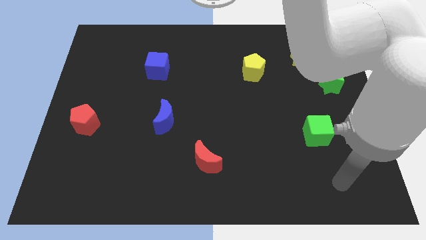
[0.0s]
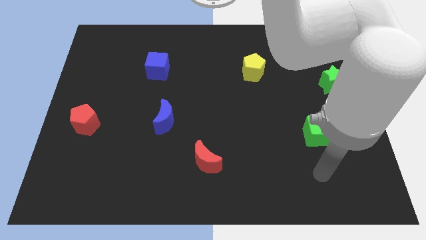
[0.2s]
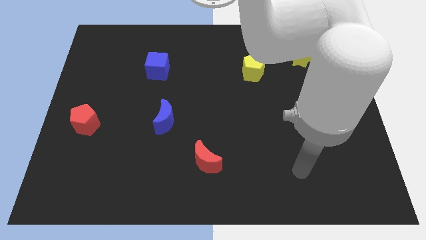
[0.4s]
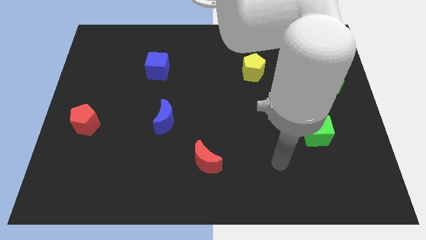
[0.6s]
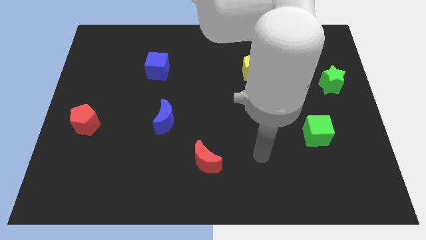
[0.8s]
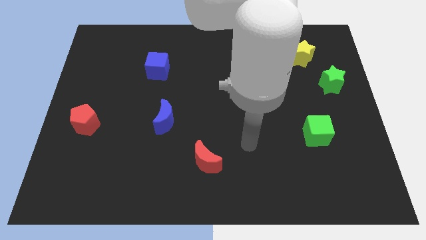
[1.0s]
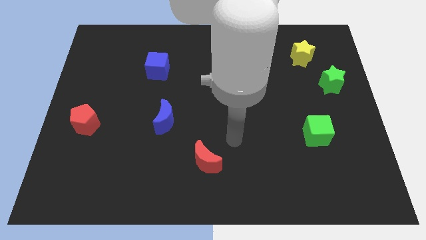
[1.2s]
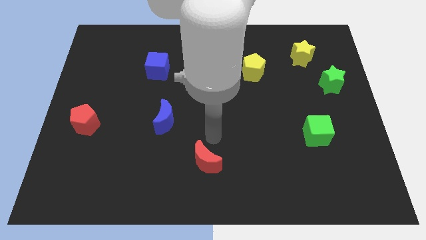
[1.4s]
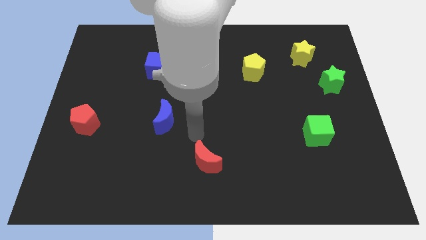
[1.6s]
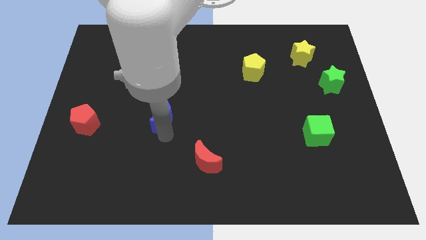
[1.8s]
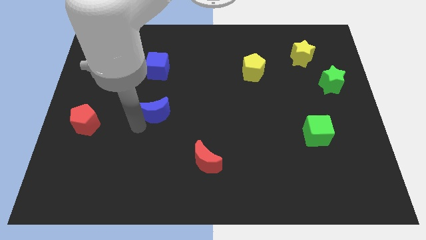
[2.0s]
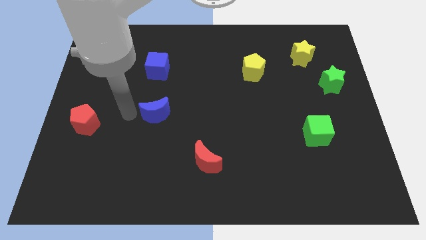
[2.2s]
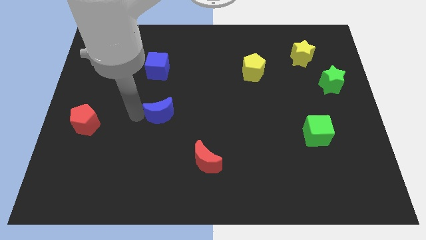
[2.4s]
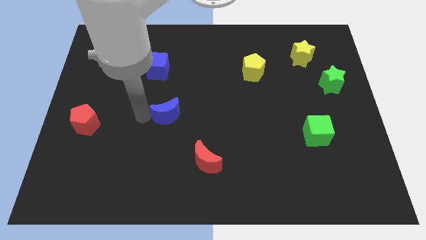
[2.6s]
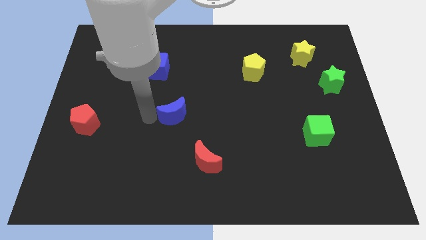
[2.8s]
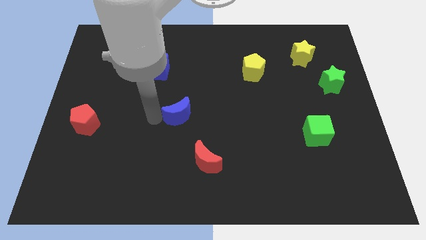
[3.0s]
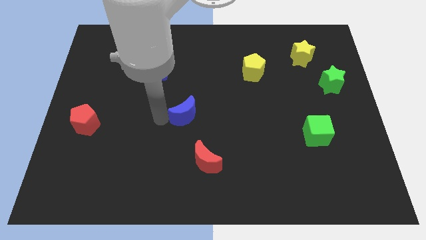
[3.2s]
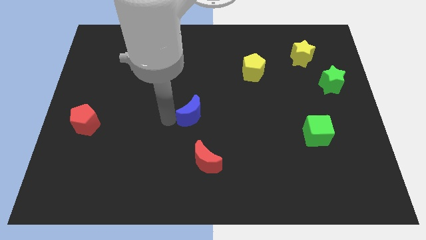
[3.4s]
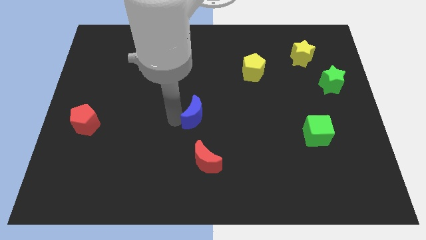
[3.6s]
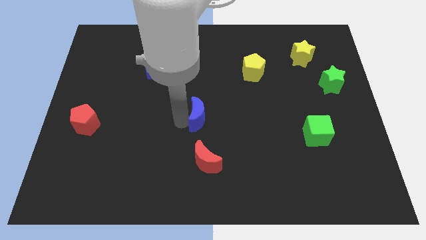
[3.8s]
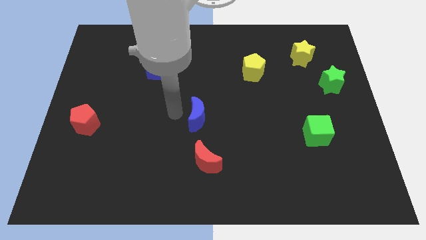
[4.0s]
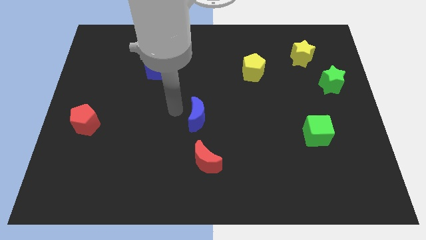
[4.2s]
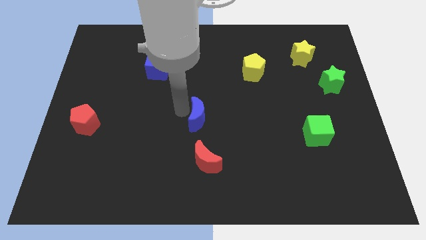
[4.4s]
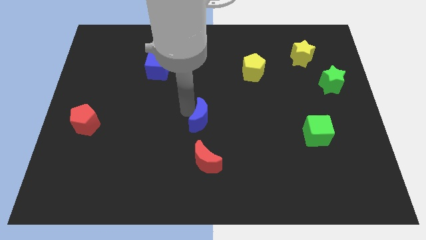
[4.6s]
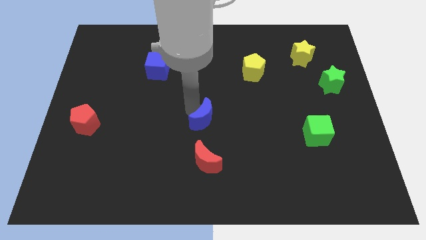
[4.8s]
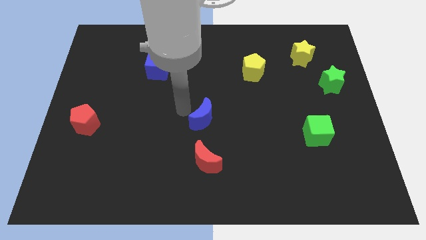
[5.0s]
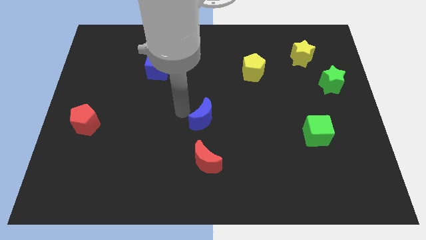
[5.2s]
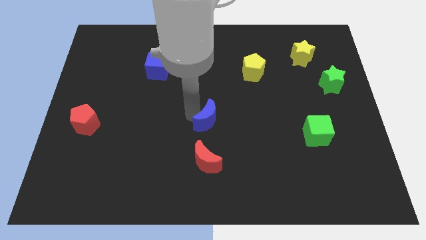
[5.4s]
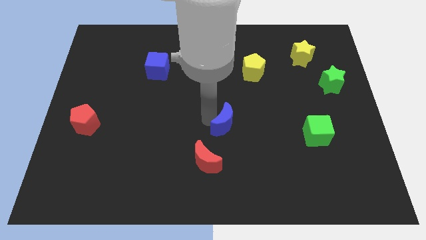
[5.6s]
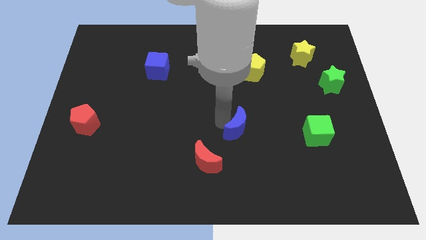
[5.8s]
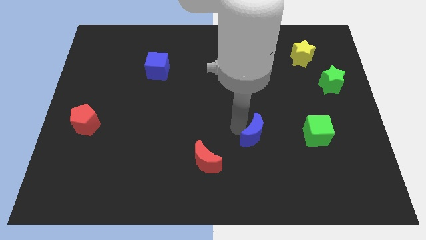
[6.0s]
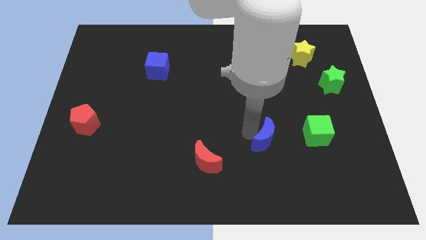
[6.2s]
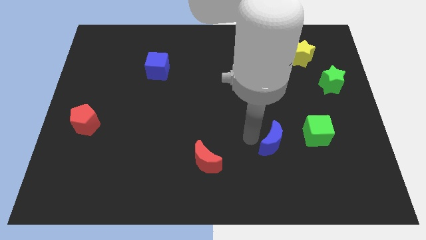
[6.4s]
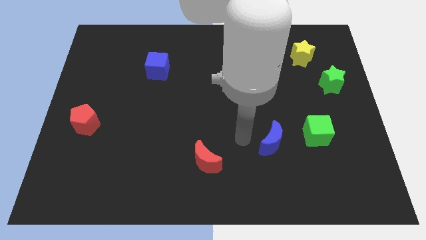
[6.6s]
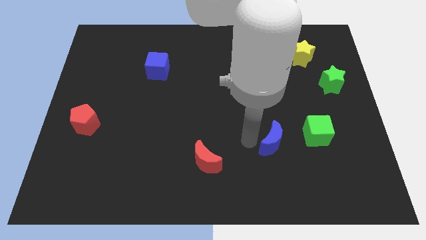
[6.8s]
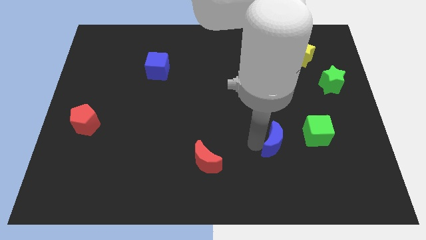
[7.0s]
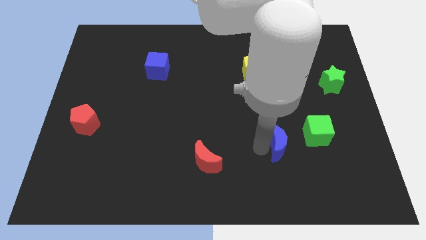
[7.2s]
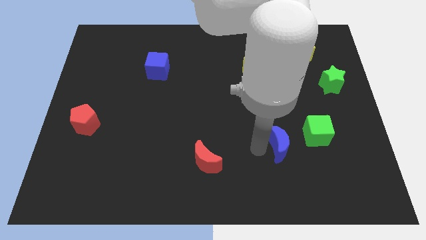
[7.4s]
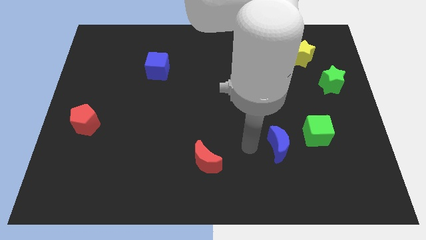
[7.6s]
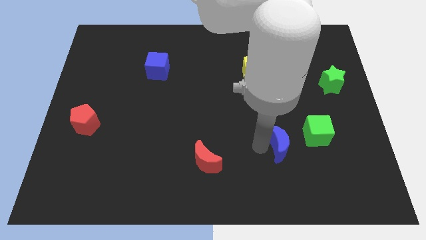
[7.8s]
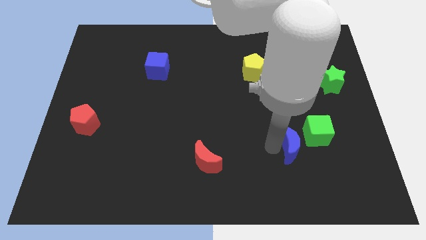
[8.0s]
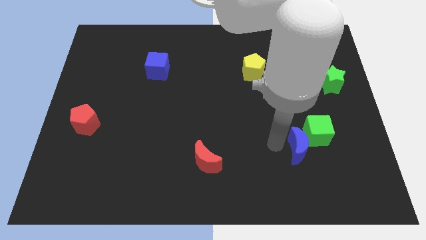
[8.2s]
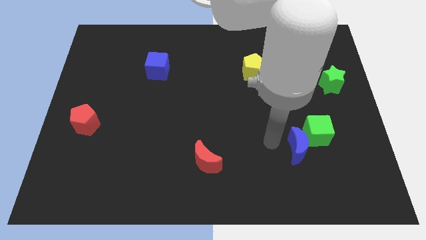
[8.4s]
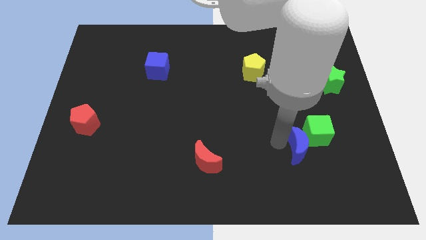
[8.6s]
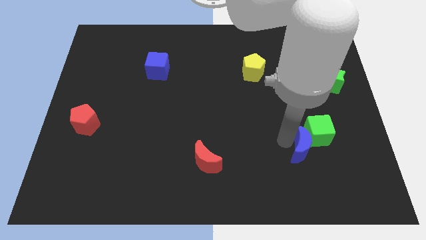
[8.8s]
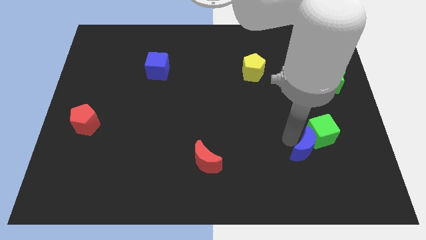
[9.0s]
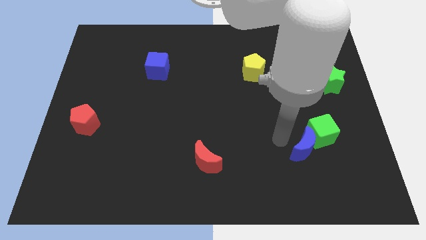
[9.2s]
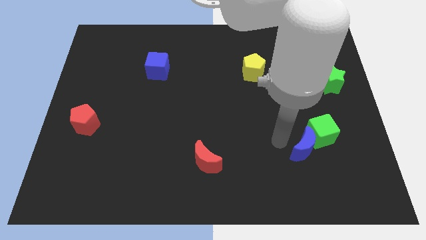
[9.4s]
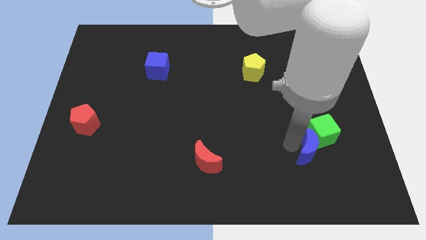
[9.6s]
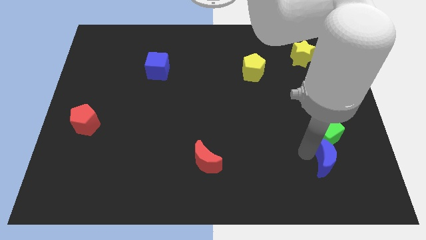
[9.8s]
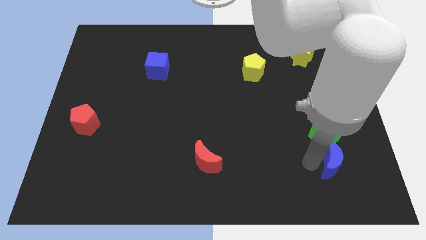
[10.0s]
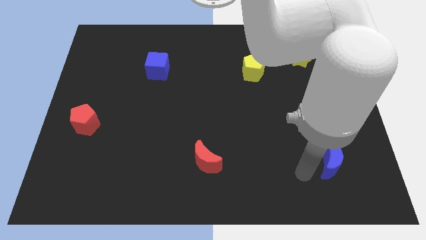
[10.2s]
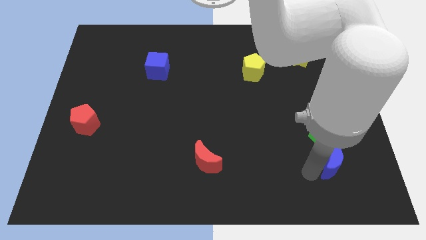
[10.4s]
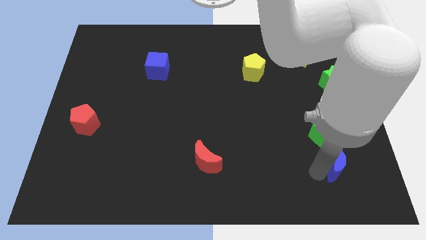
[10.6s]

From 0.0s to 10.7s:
put the blue moon to the bottom right side of the green cube

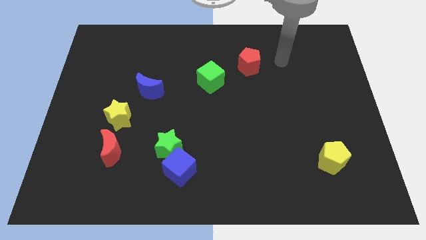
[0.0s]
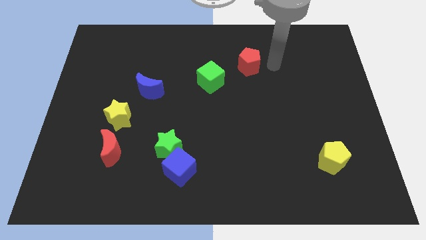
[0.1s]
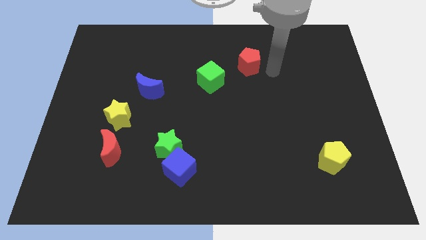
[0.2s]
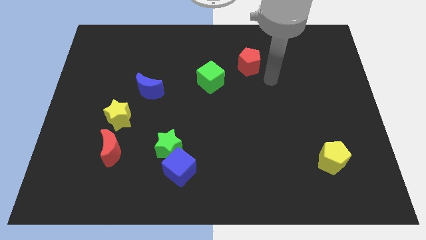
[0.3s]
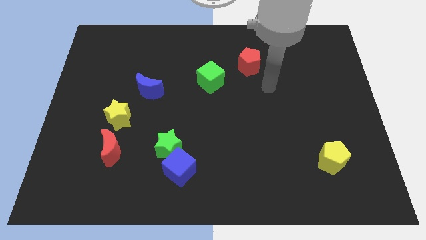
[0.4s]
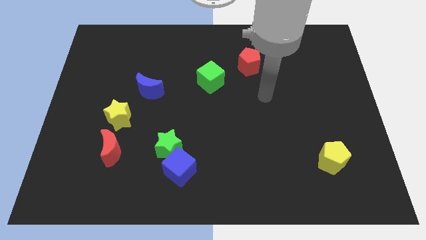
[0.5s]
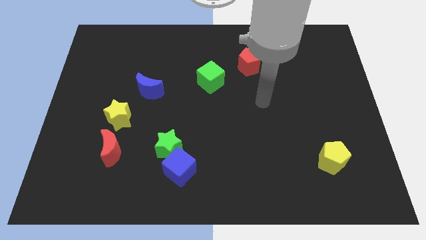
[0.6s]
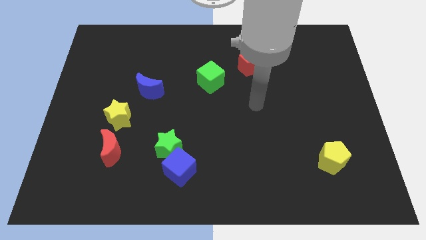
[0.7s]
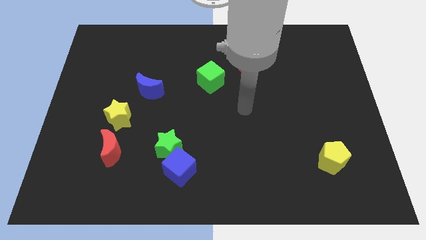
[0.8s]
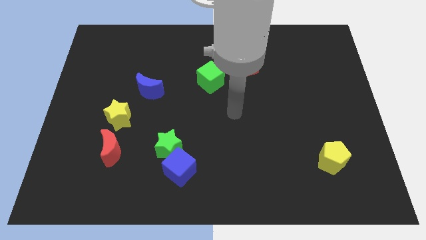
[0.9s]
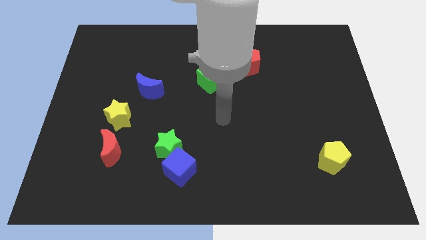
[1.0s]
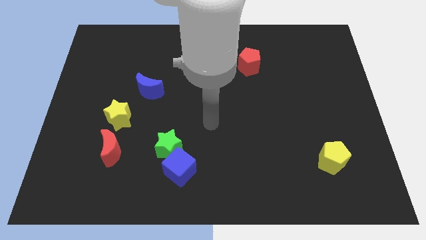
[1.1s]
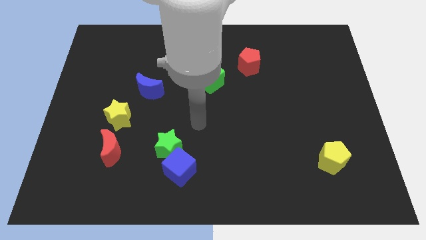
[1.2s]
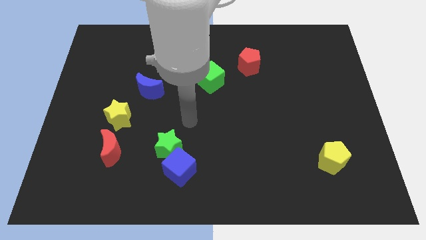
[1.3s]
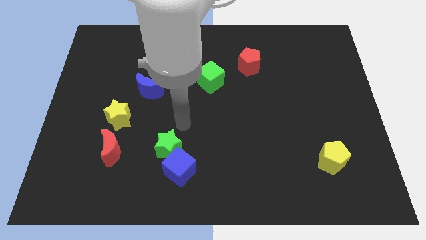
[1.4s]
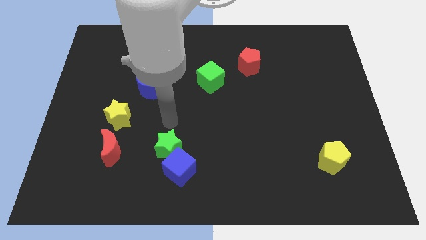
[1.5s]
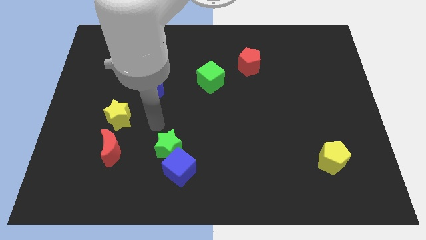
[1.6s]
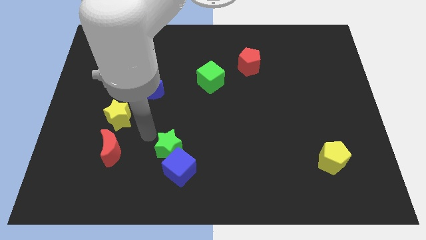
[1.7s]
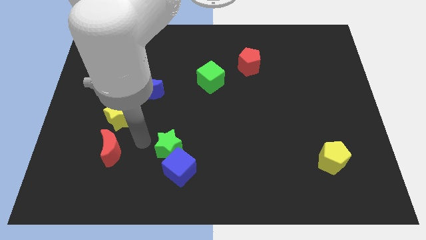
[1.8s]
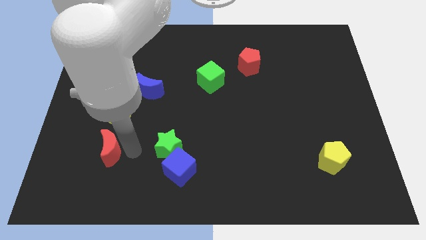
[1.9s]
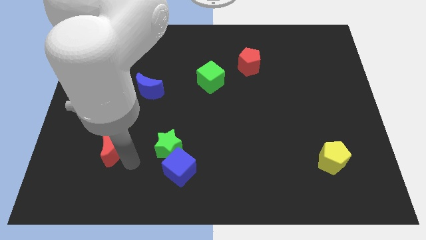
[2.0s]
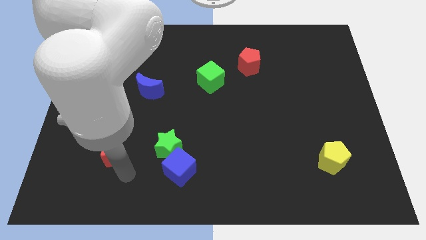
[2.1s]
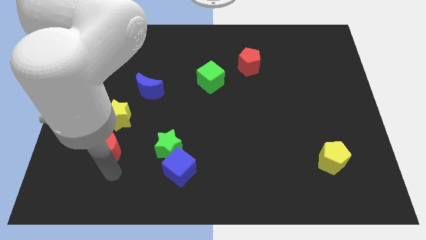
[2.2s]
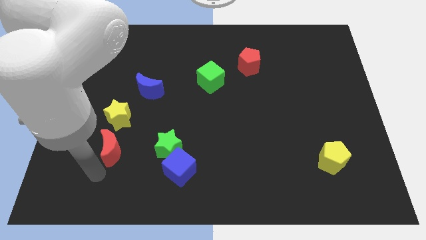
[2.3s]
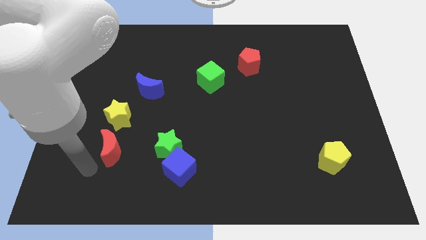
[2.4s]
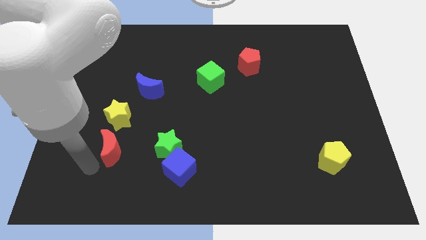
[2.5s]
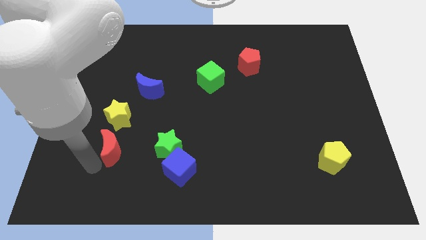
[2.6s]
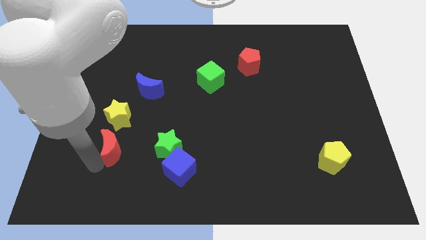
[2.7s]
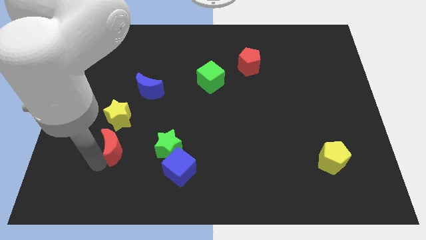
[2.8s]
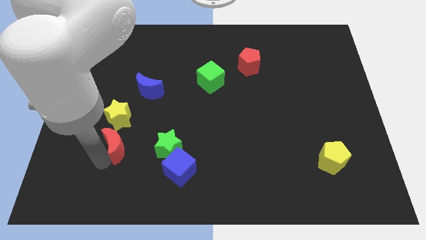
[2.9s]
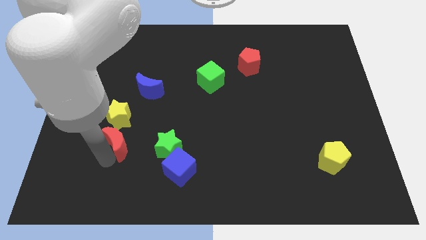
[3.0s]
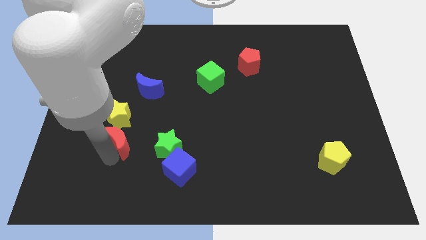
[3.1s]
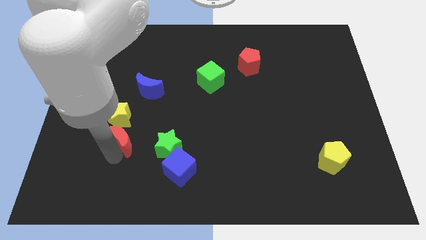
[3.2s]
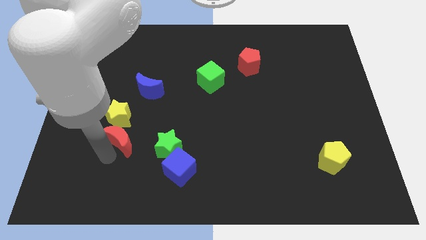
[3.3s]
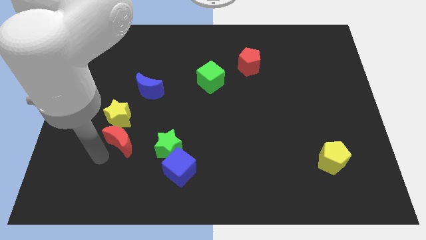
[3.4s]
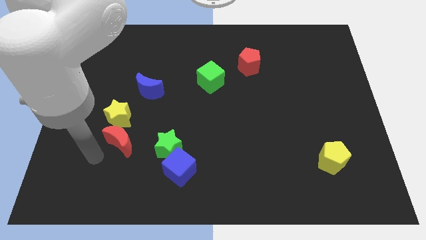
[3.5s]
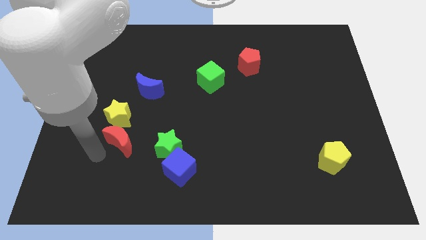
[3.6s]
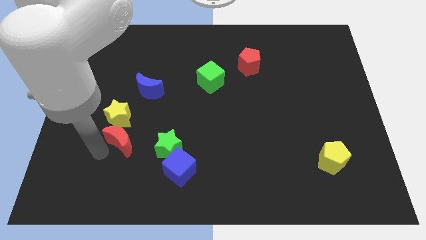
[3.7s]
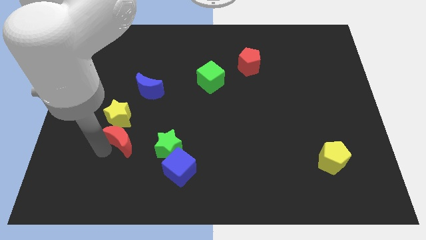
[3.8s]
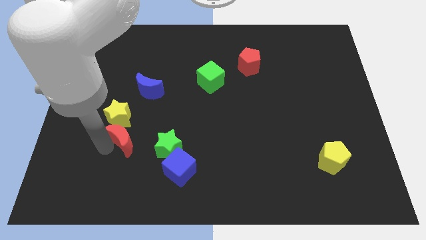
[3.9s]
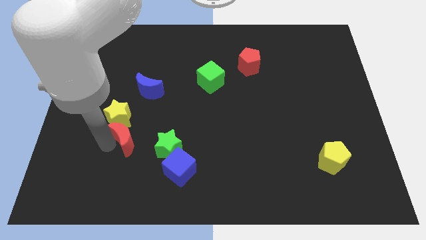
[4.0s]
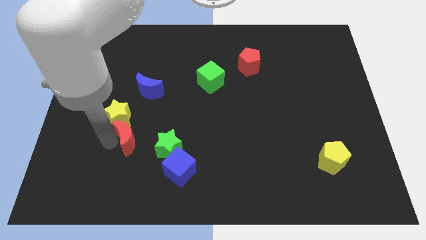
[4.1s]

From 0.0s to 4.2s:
put the red moon diagonally up and to the left of the green star
